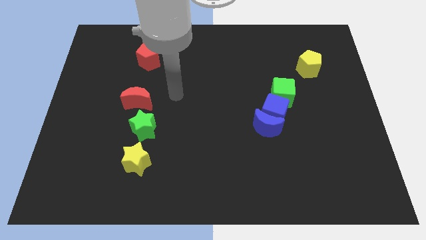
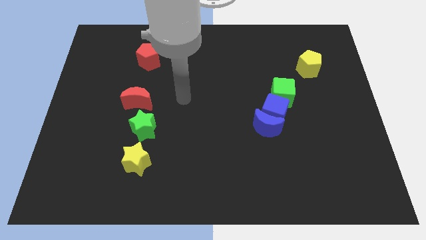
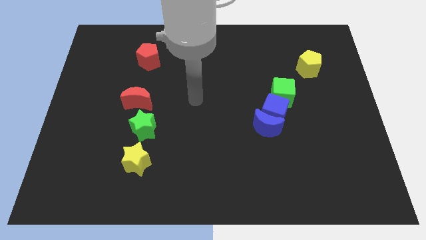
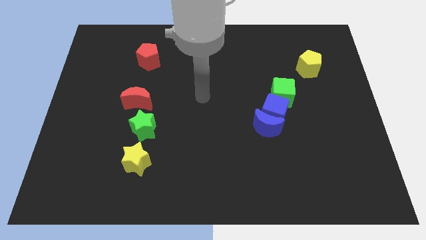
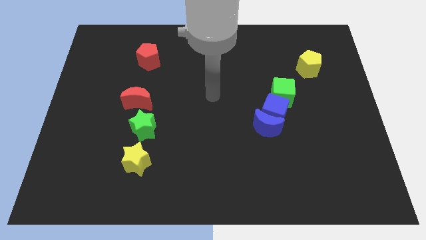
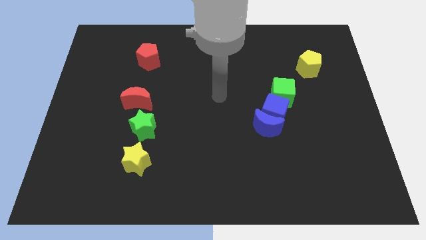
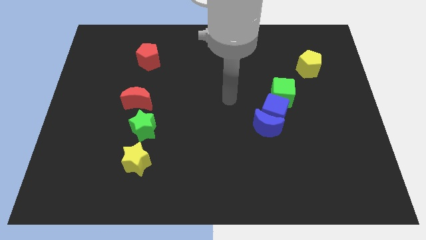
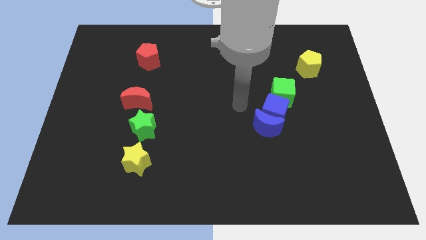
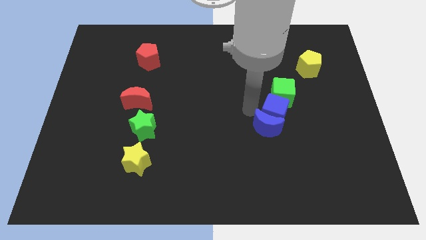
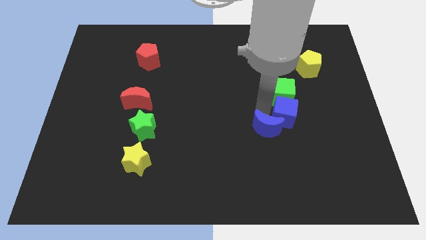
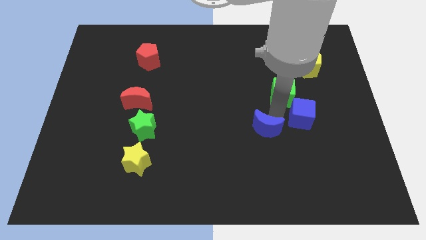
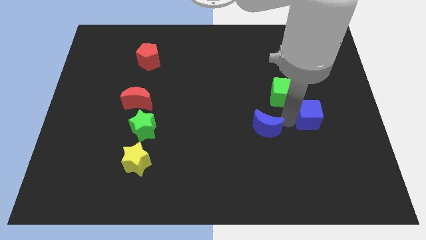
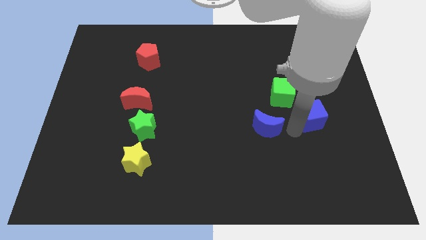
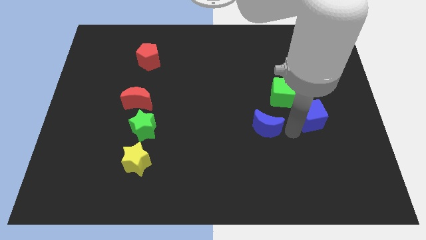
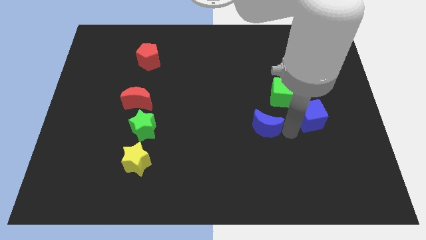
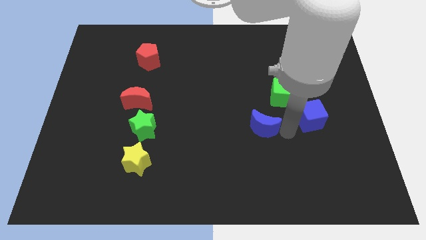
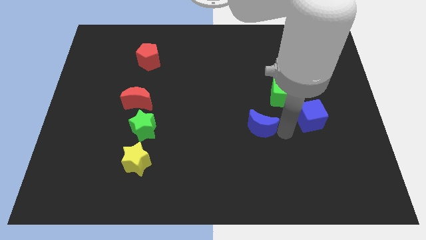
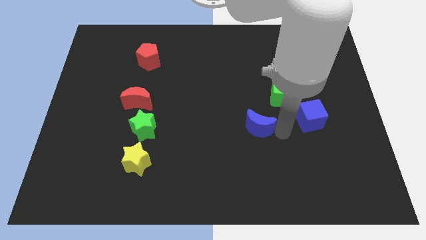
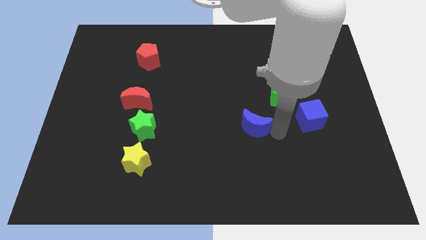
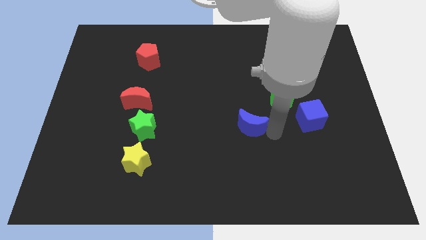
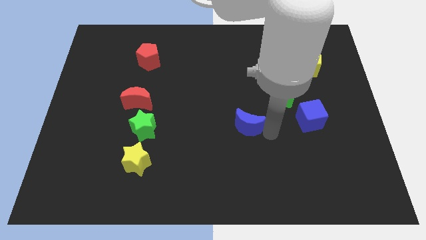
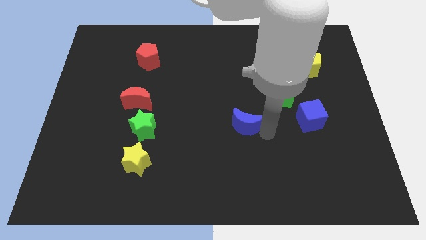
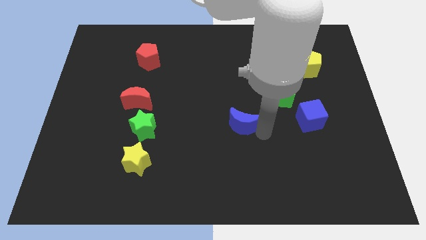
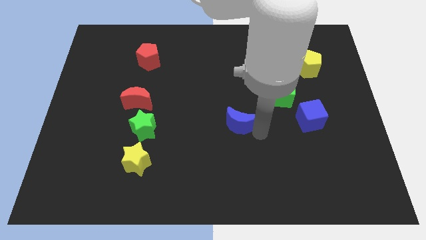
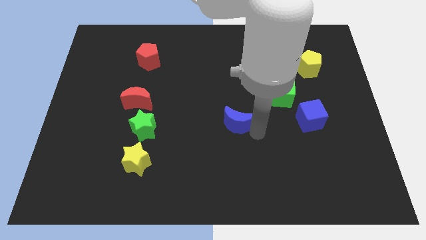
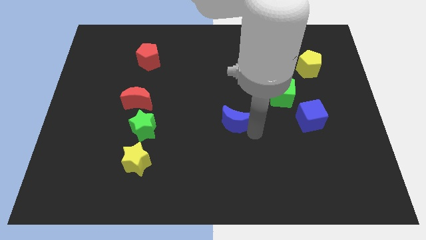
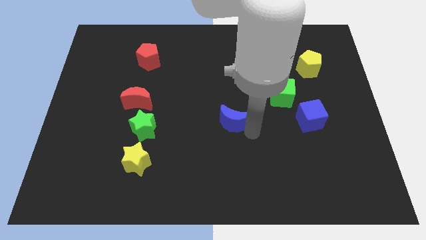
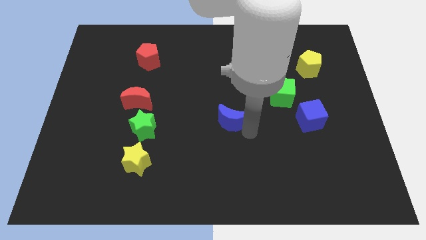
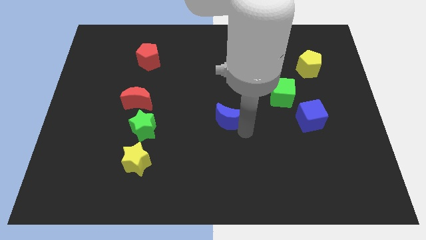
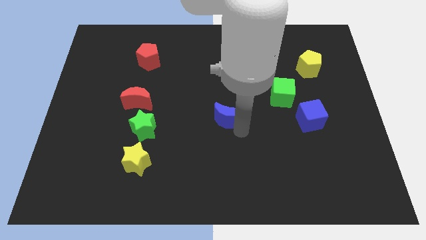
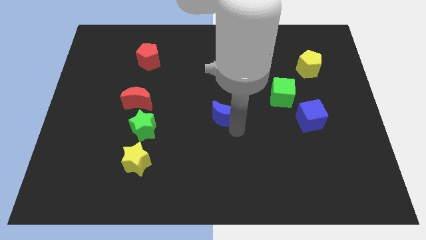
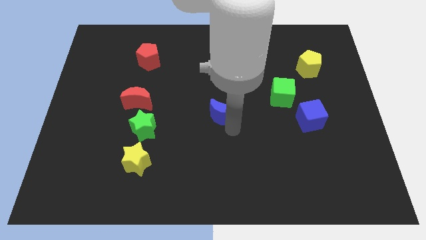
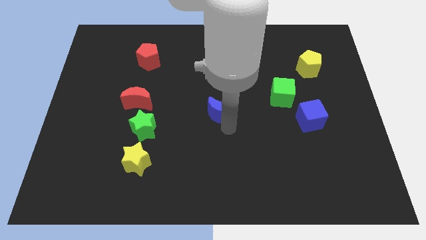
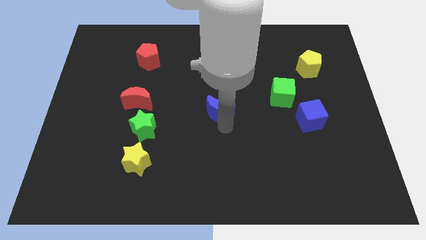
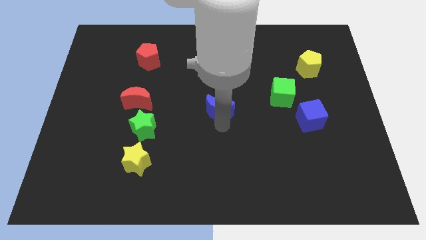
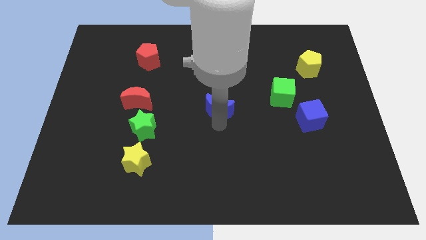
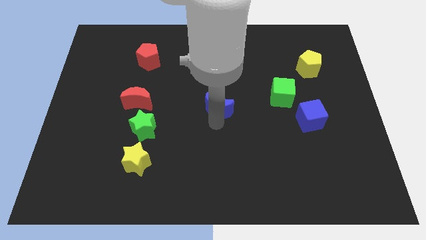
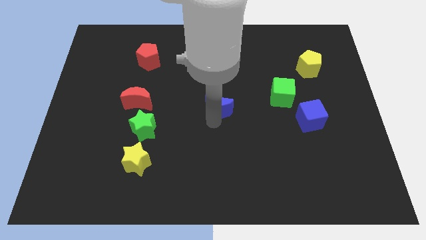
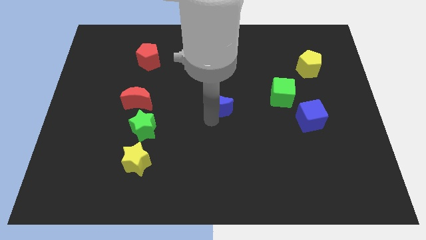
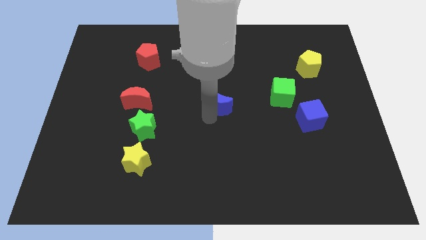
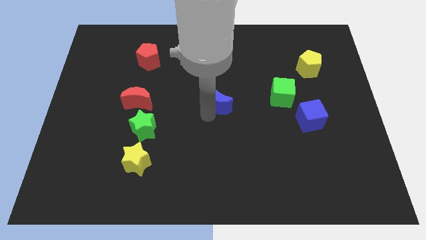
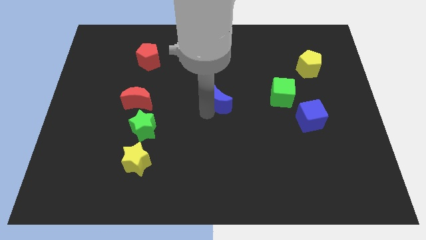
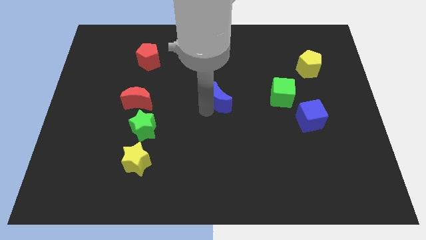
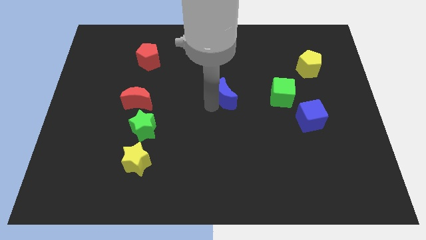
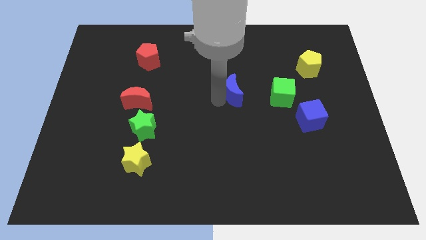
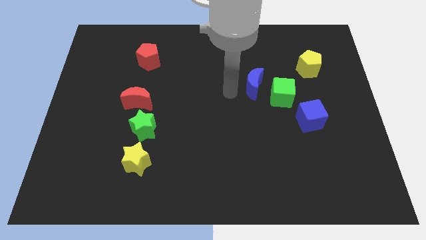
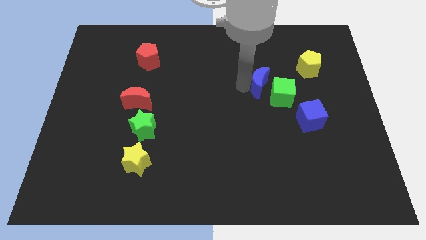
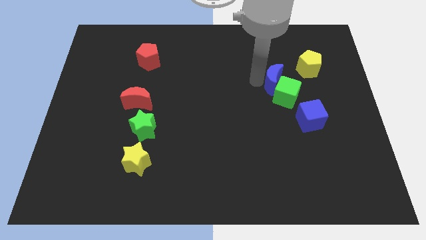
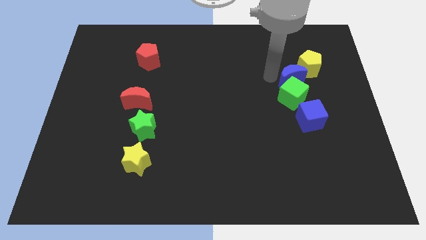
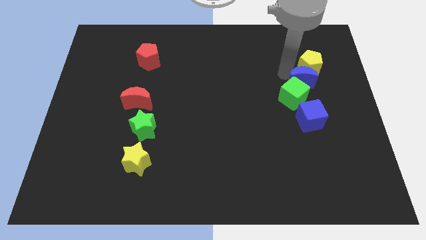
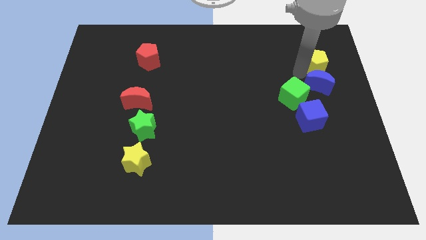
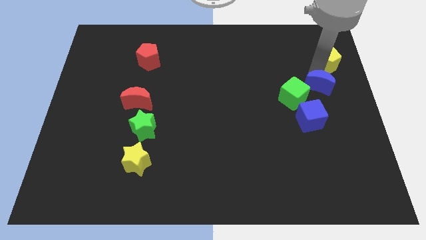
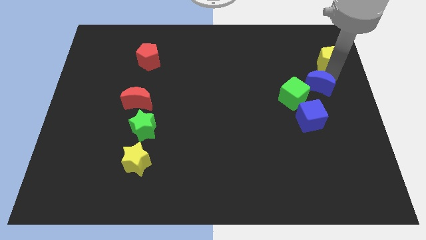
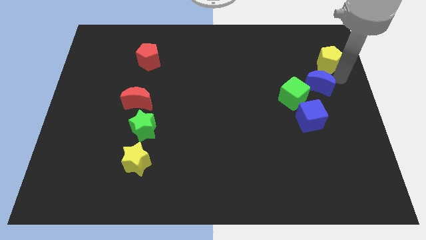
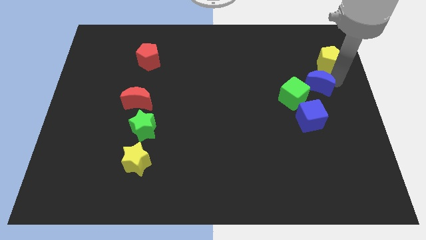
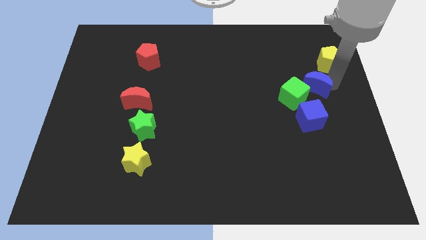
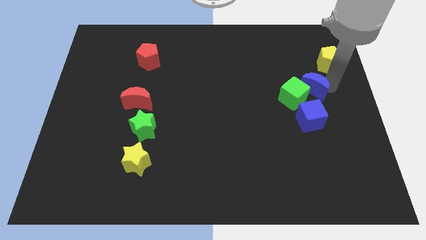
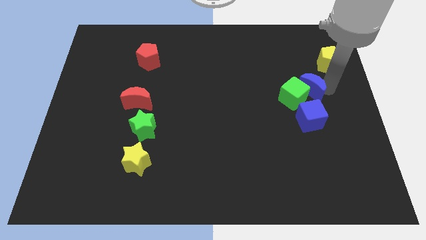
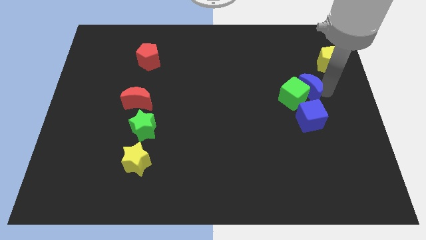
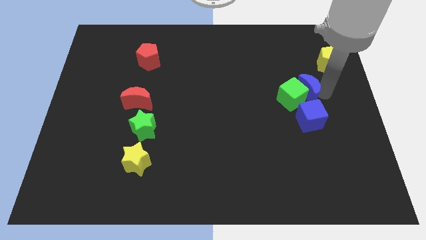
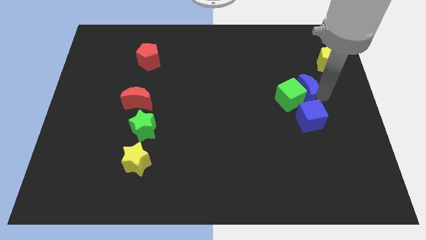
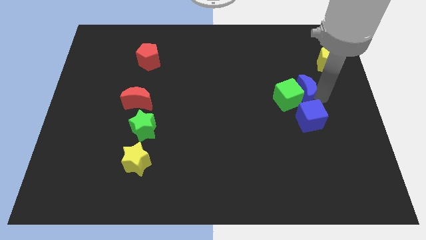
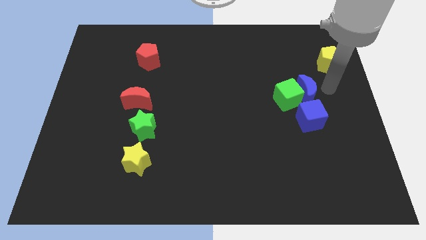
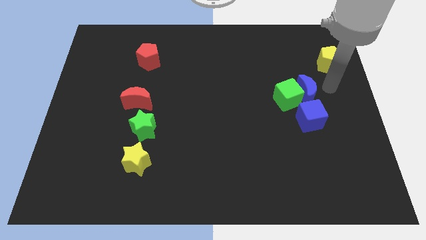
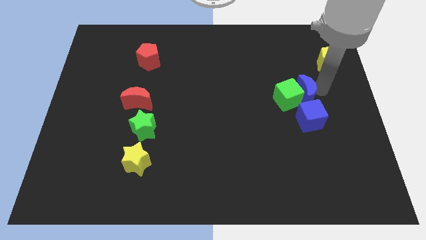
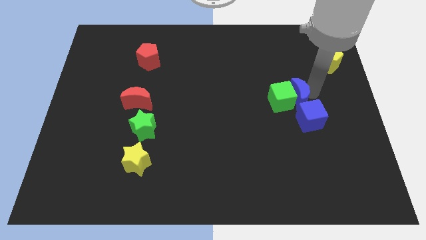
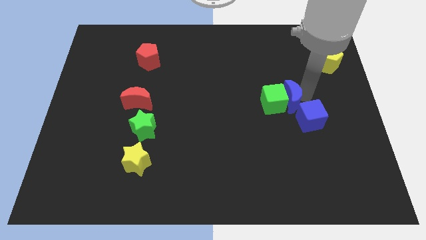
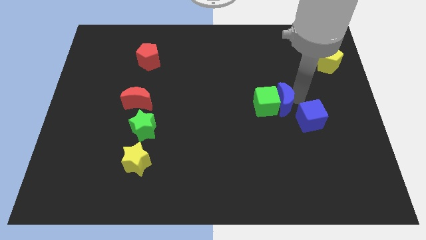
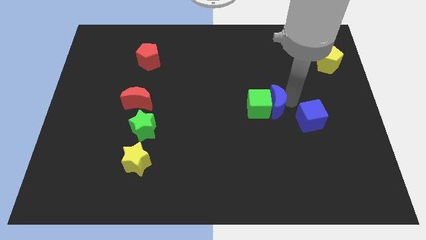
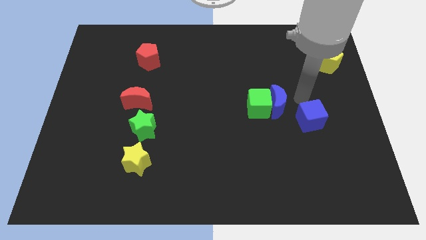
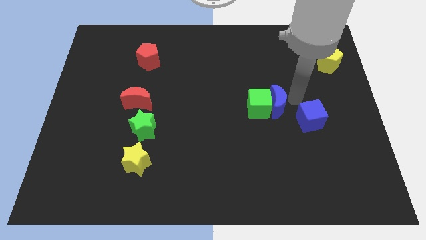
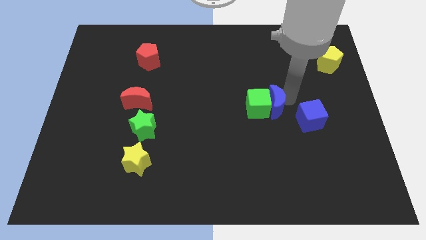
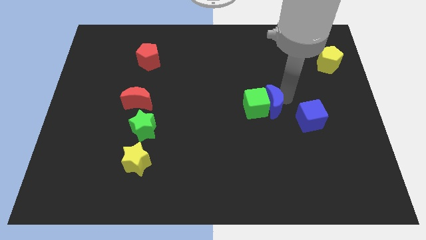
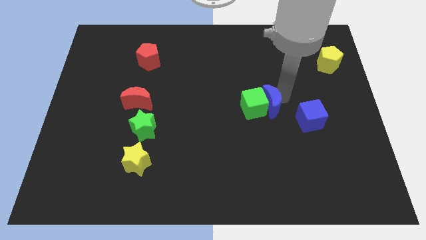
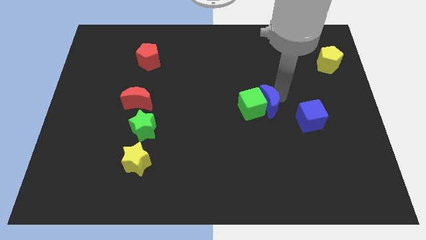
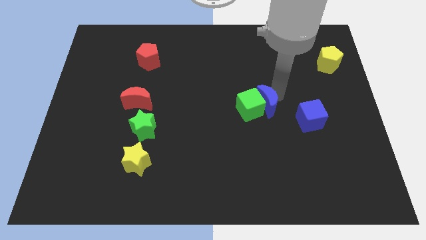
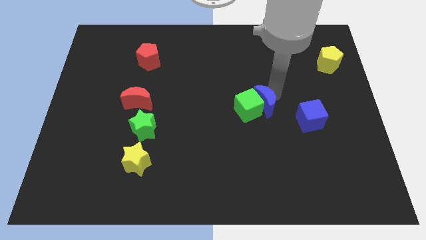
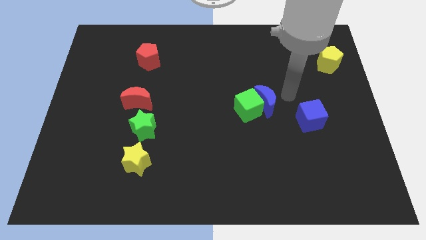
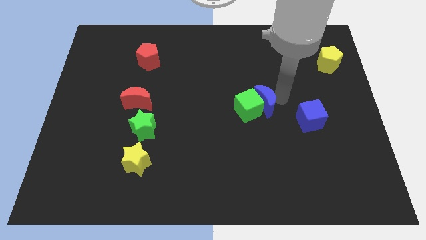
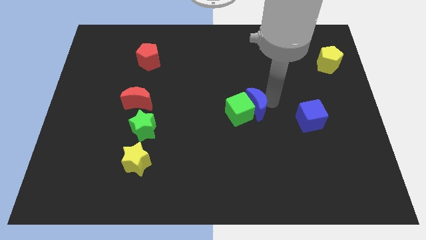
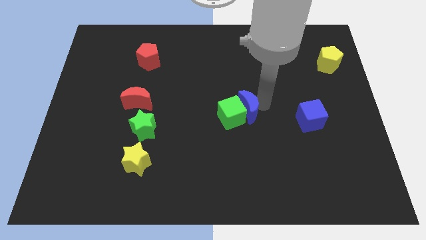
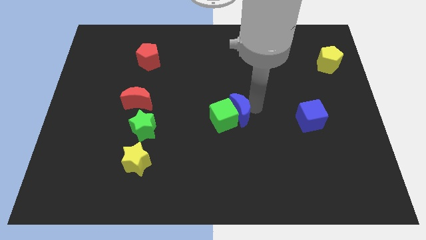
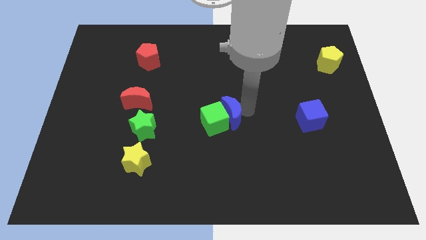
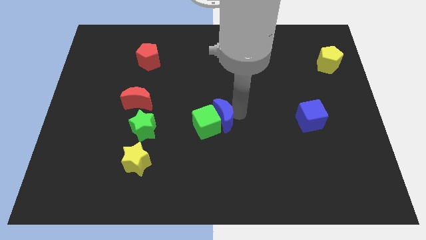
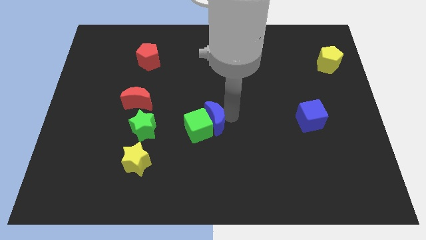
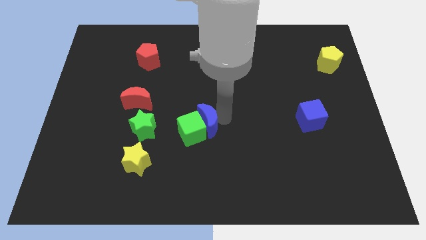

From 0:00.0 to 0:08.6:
put the blue moon just right of the green star
